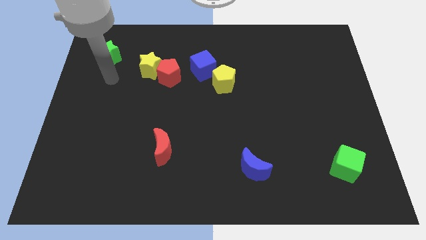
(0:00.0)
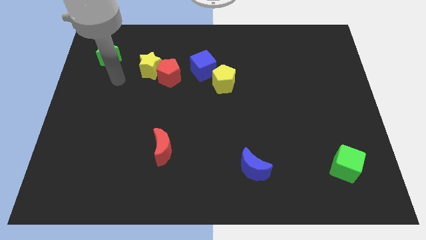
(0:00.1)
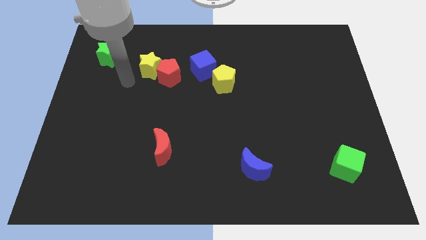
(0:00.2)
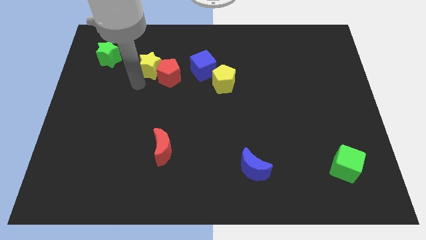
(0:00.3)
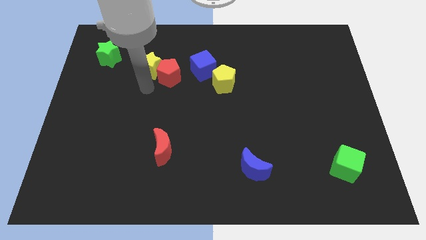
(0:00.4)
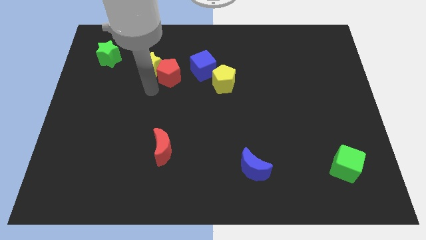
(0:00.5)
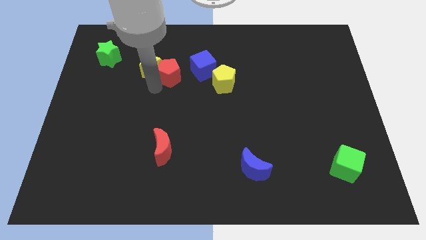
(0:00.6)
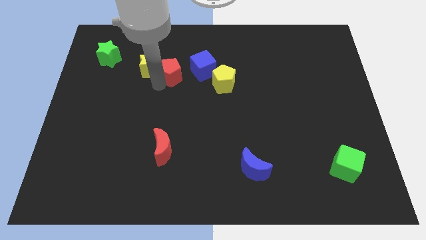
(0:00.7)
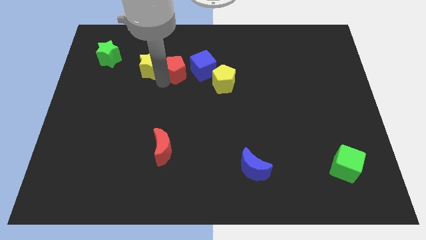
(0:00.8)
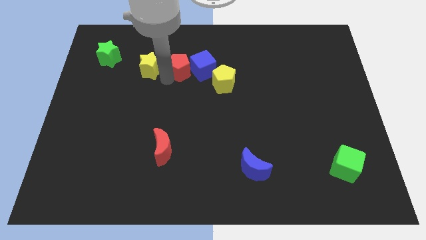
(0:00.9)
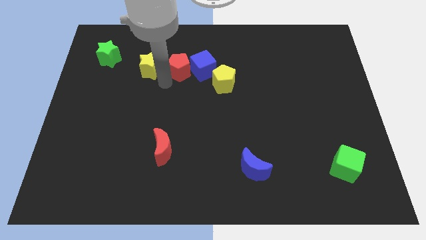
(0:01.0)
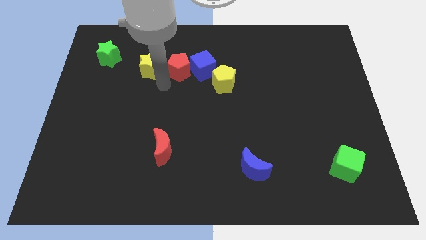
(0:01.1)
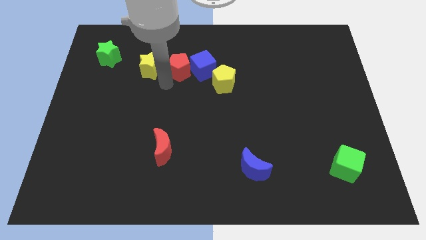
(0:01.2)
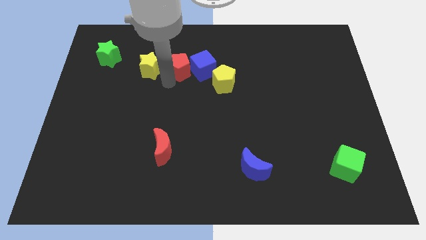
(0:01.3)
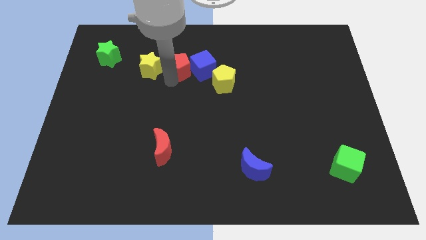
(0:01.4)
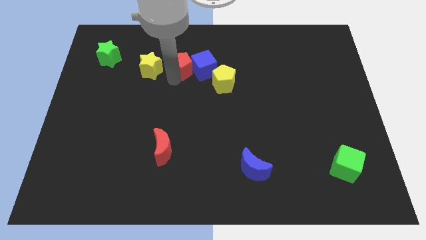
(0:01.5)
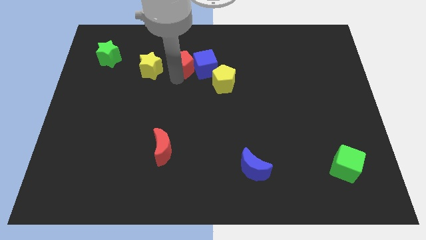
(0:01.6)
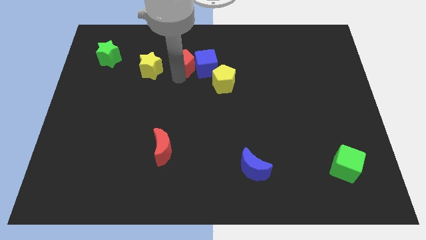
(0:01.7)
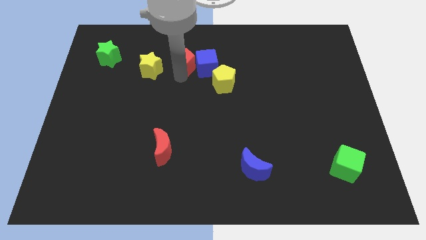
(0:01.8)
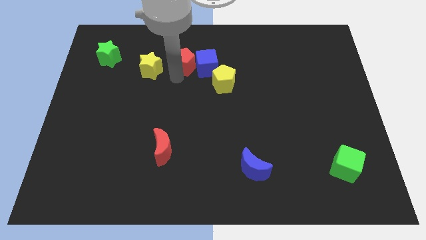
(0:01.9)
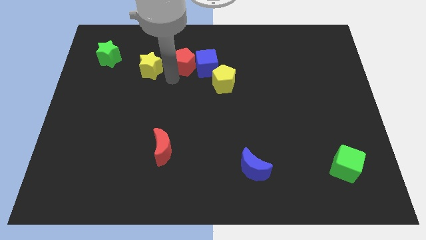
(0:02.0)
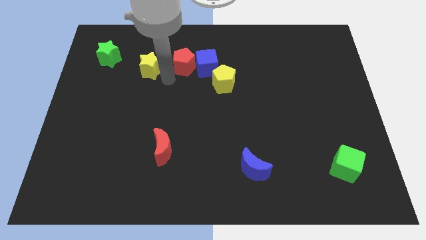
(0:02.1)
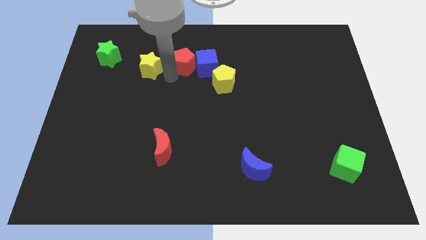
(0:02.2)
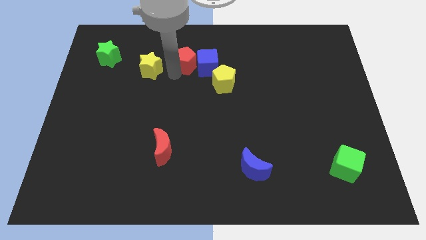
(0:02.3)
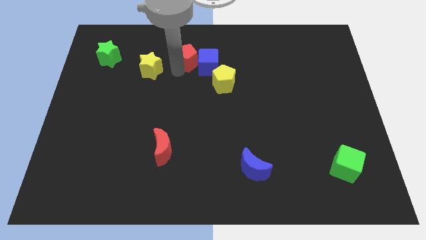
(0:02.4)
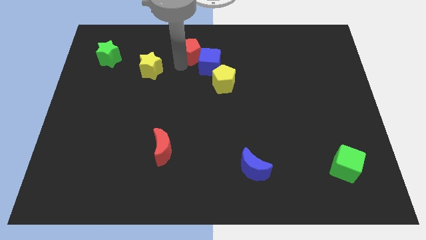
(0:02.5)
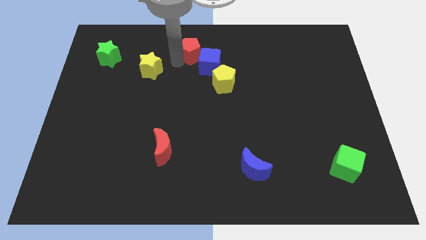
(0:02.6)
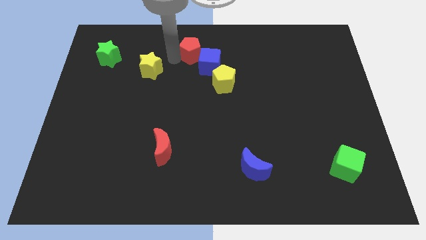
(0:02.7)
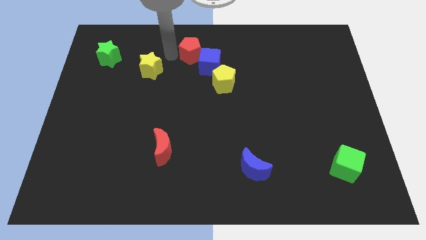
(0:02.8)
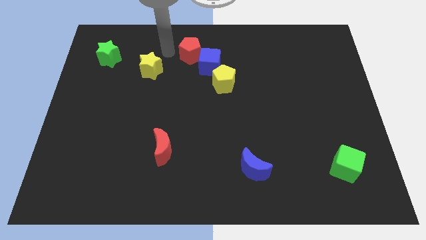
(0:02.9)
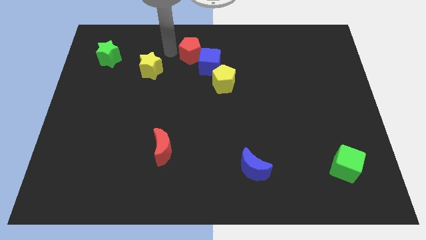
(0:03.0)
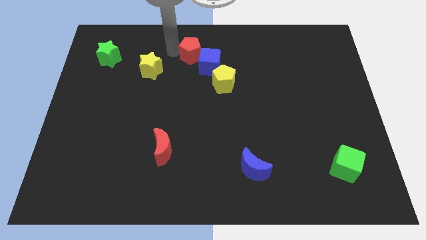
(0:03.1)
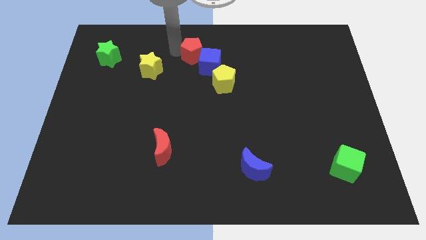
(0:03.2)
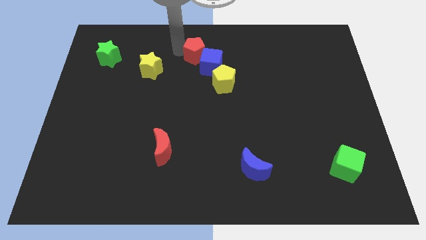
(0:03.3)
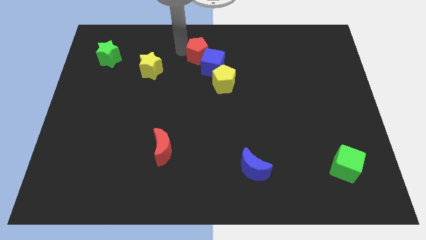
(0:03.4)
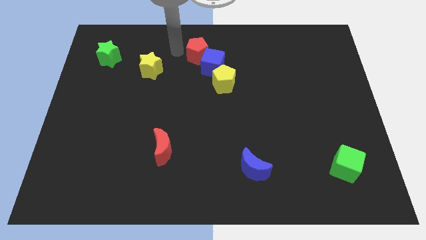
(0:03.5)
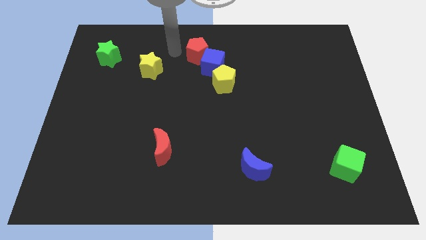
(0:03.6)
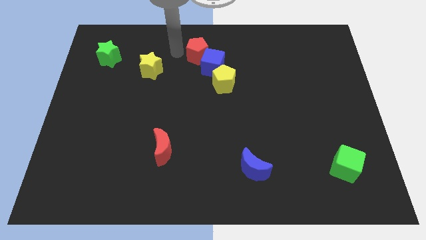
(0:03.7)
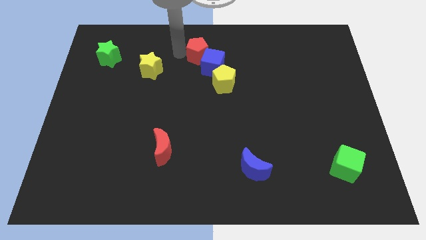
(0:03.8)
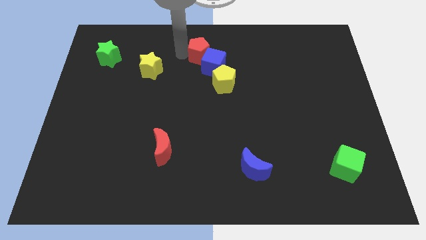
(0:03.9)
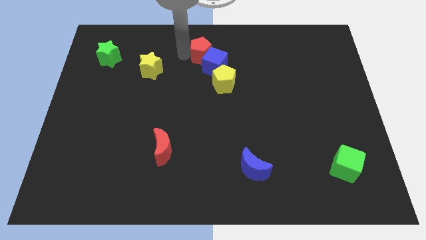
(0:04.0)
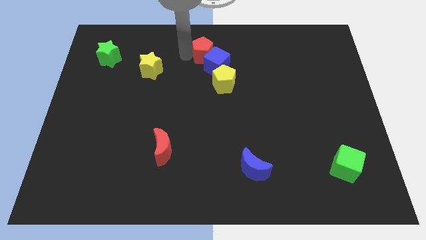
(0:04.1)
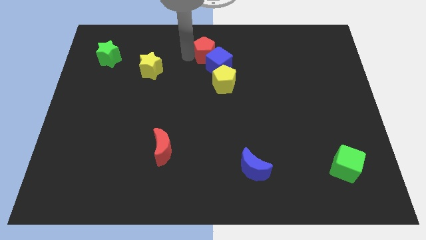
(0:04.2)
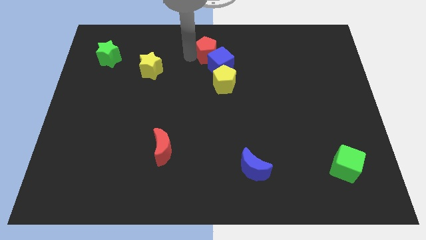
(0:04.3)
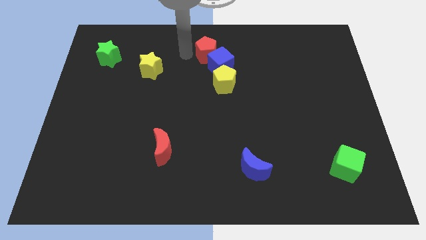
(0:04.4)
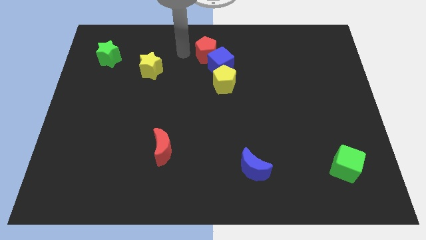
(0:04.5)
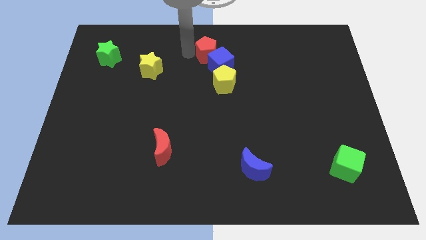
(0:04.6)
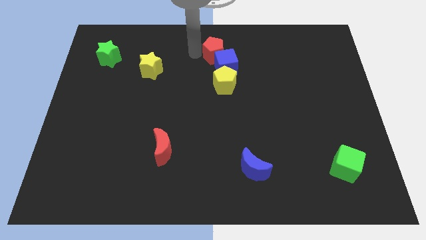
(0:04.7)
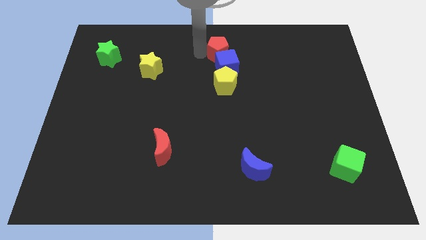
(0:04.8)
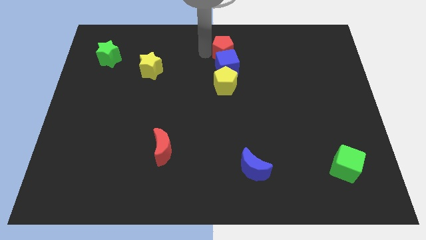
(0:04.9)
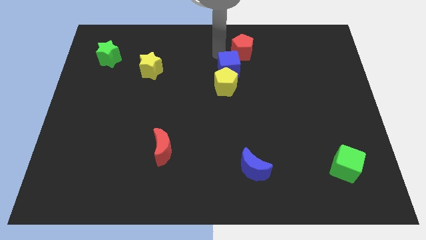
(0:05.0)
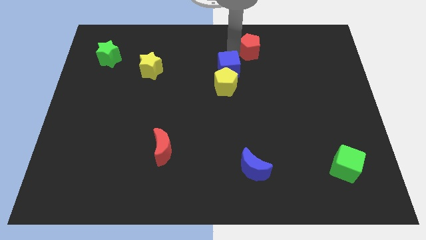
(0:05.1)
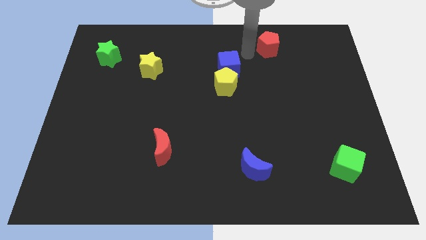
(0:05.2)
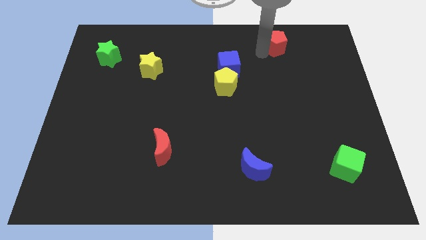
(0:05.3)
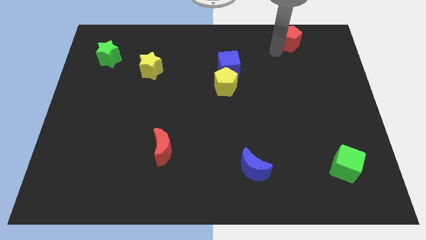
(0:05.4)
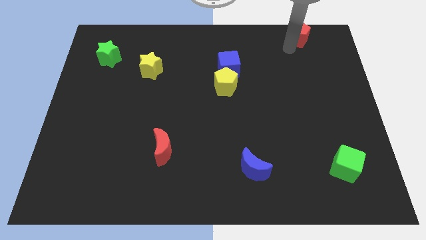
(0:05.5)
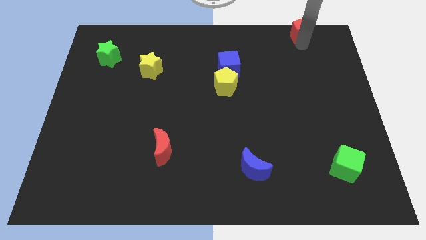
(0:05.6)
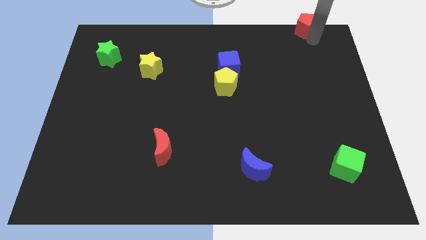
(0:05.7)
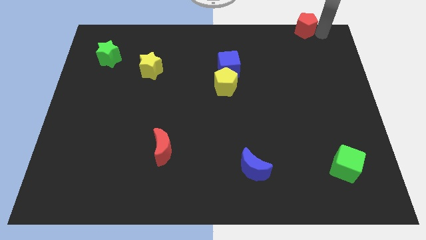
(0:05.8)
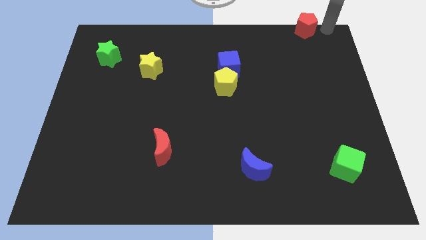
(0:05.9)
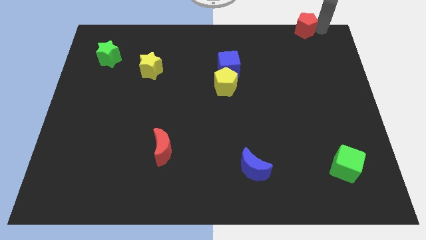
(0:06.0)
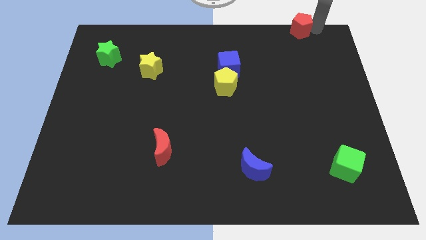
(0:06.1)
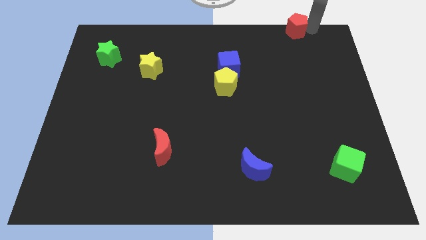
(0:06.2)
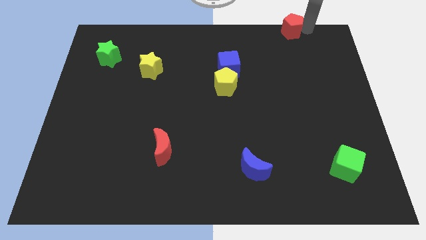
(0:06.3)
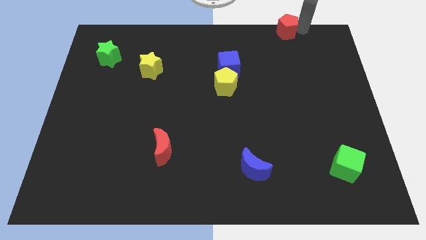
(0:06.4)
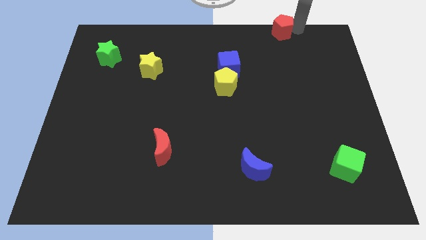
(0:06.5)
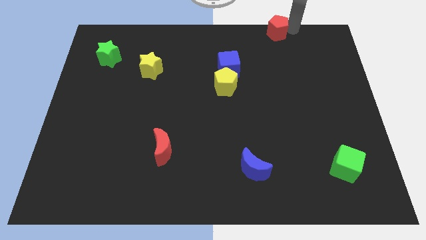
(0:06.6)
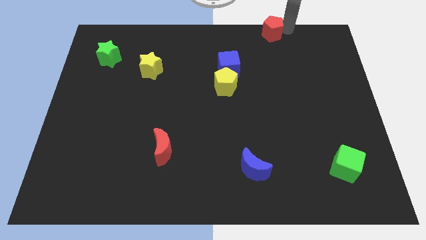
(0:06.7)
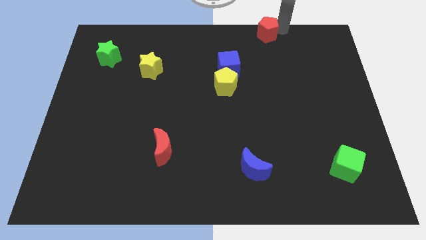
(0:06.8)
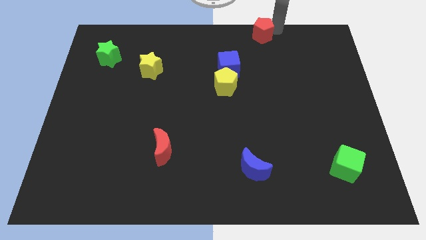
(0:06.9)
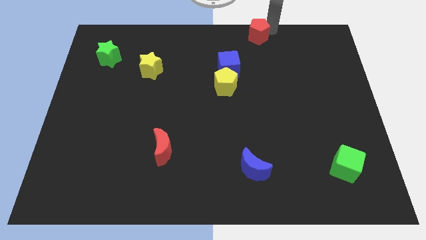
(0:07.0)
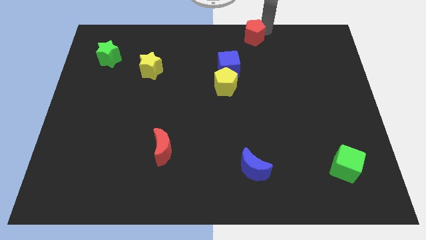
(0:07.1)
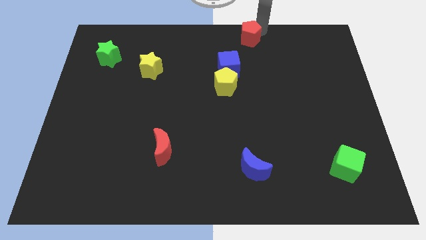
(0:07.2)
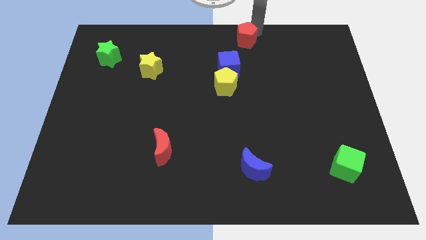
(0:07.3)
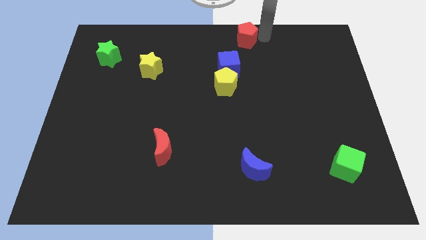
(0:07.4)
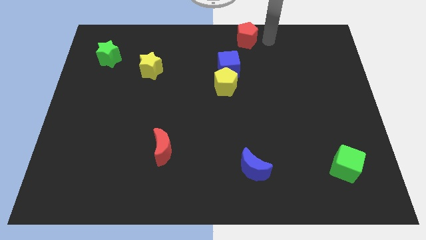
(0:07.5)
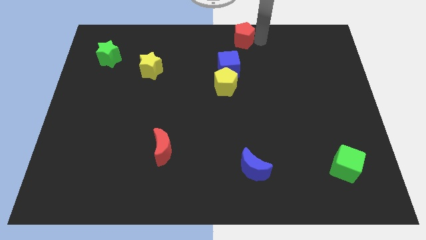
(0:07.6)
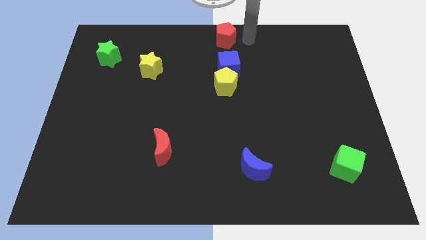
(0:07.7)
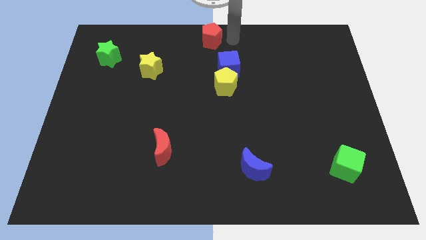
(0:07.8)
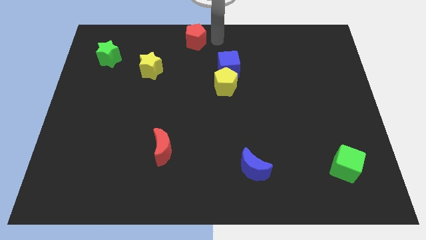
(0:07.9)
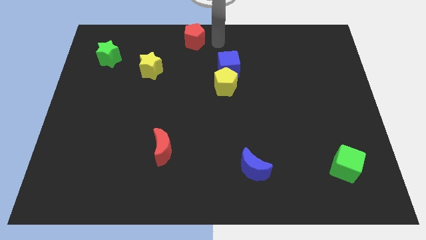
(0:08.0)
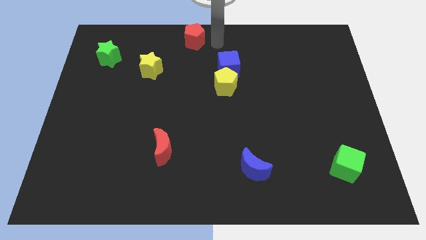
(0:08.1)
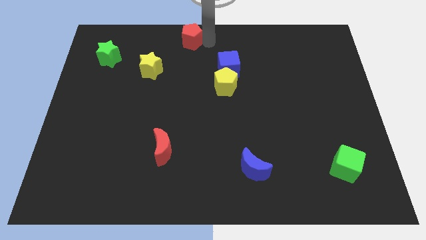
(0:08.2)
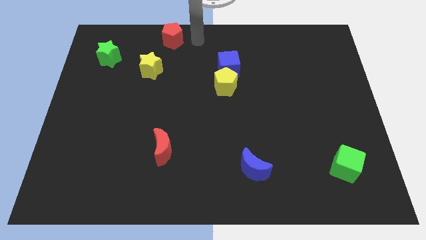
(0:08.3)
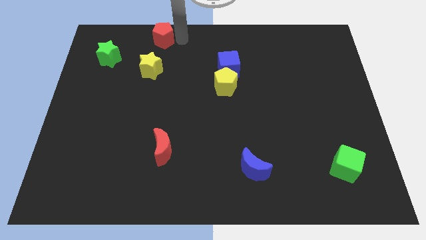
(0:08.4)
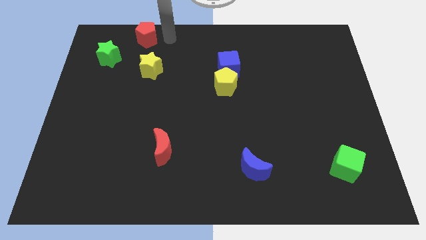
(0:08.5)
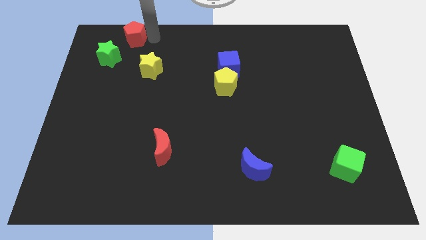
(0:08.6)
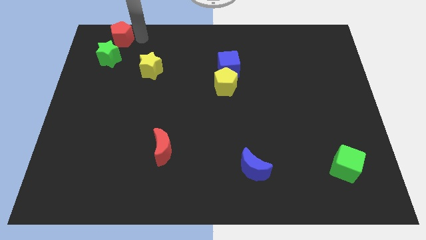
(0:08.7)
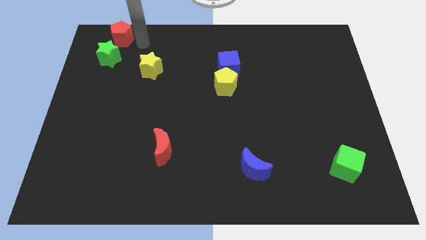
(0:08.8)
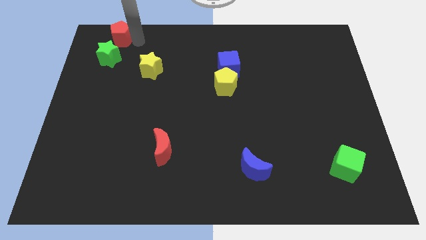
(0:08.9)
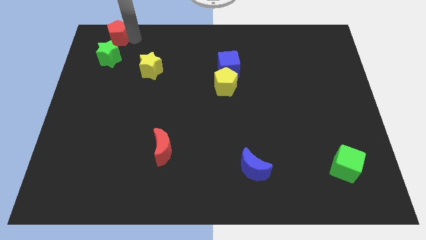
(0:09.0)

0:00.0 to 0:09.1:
slide the red pentagon to the top left of the board
